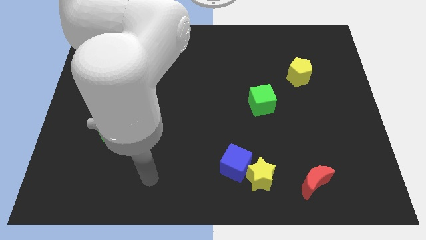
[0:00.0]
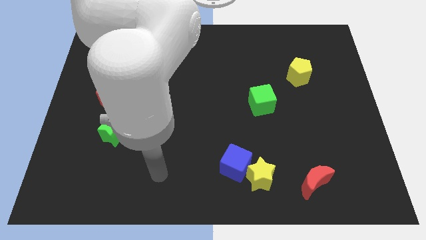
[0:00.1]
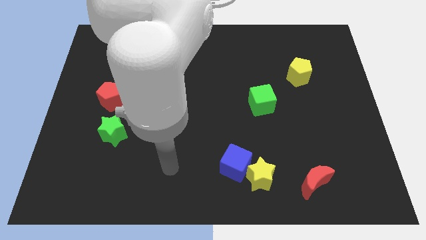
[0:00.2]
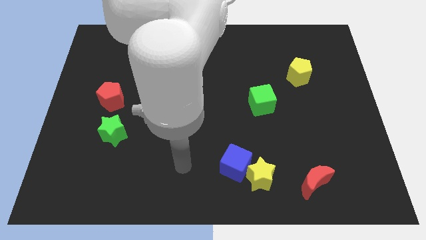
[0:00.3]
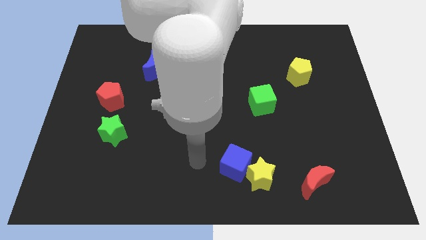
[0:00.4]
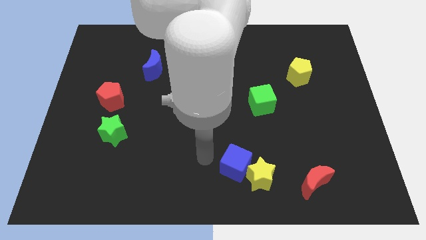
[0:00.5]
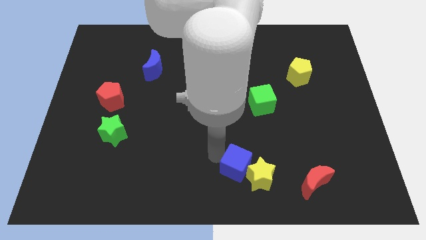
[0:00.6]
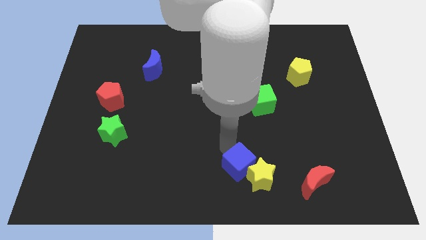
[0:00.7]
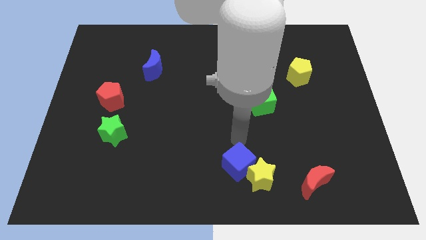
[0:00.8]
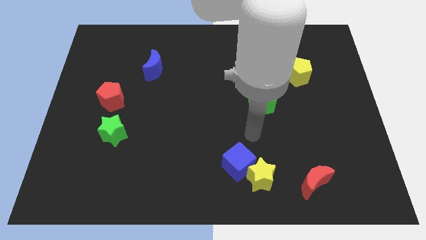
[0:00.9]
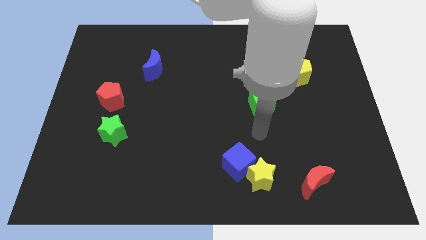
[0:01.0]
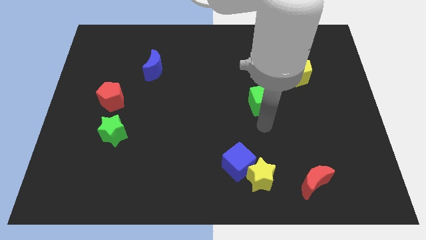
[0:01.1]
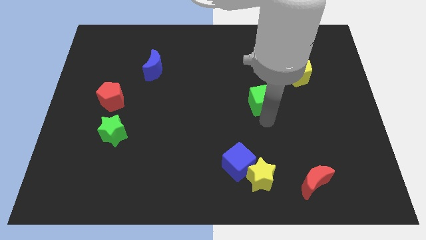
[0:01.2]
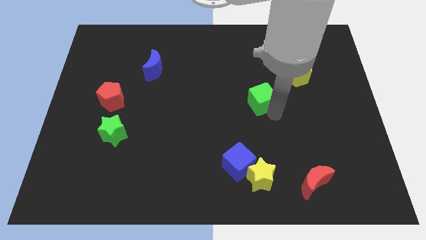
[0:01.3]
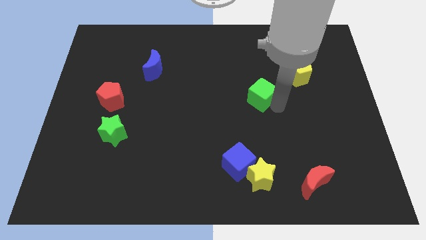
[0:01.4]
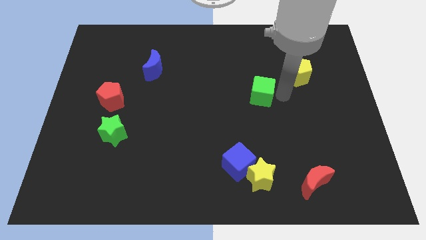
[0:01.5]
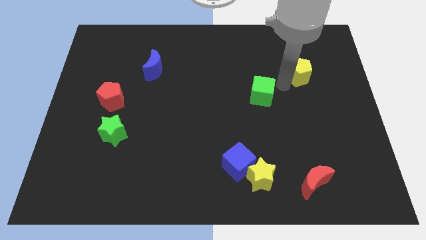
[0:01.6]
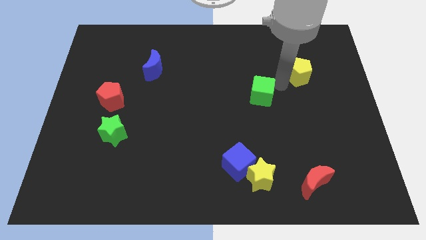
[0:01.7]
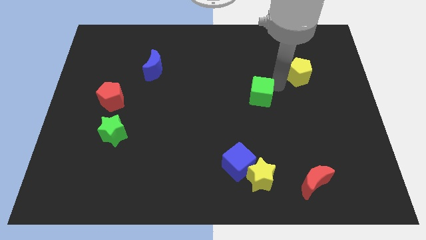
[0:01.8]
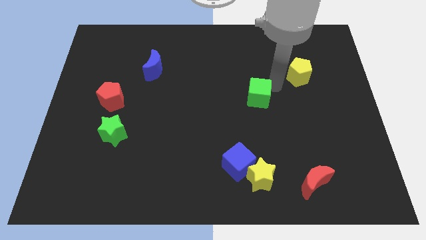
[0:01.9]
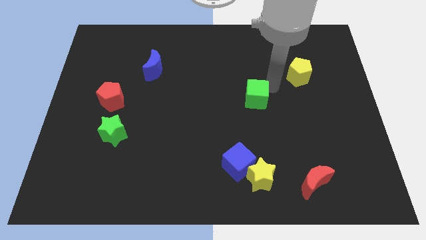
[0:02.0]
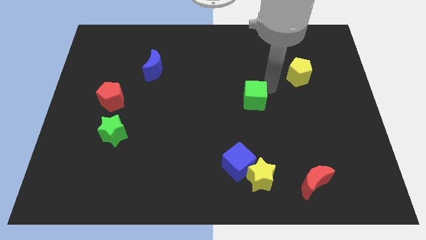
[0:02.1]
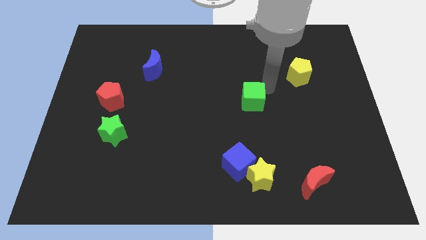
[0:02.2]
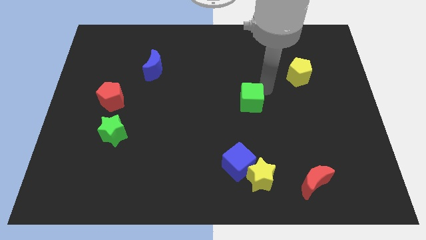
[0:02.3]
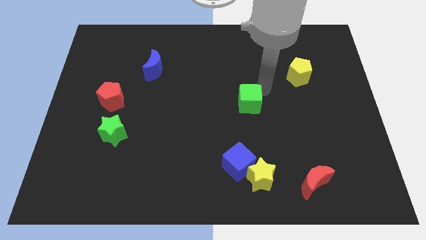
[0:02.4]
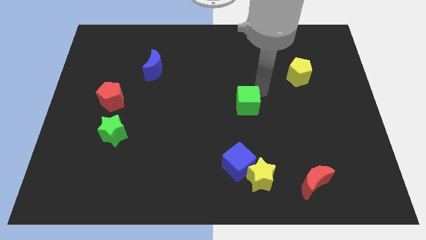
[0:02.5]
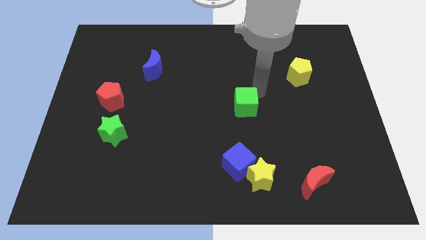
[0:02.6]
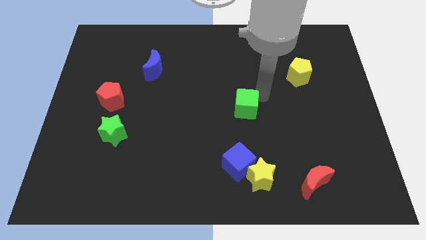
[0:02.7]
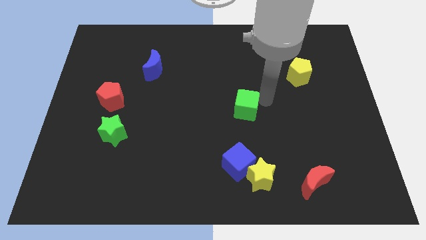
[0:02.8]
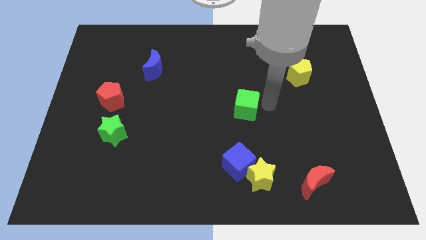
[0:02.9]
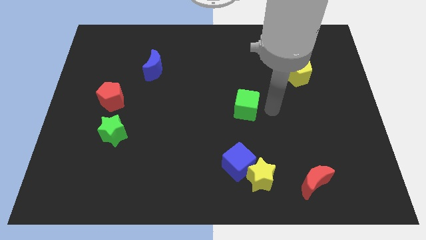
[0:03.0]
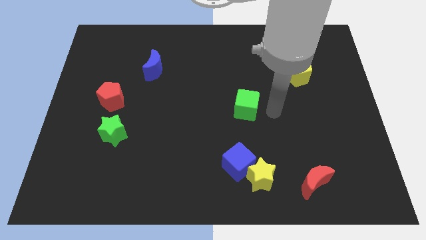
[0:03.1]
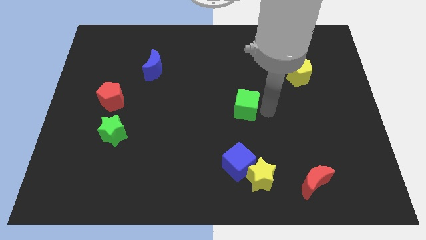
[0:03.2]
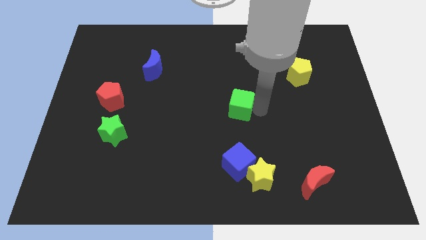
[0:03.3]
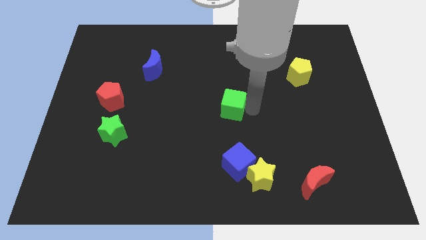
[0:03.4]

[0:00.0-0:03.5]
push the green cube a little left

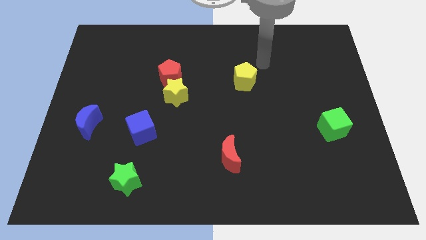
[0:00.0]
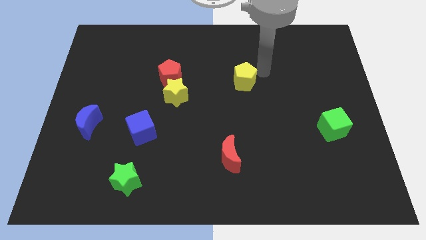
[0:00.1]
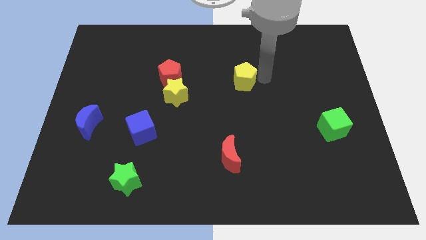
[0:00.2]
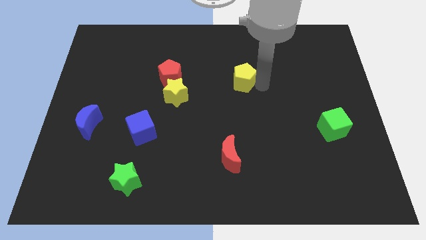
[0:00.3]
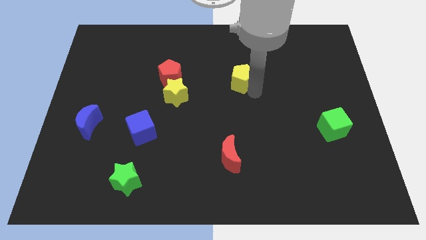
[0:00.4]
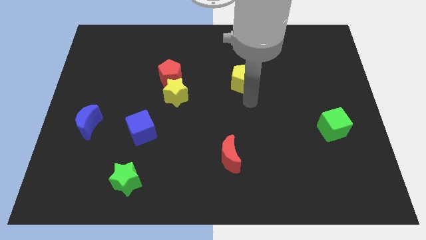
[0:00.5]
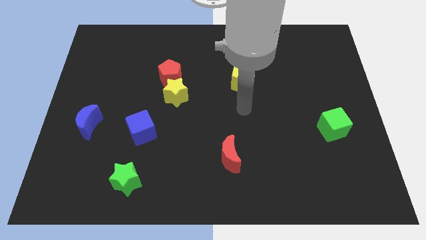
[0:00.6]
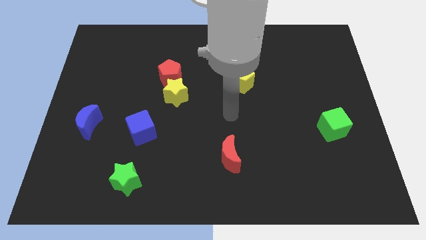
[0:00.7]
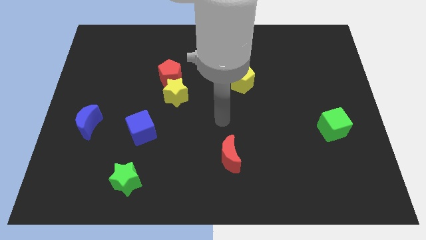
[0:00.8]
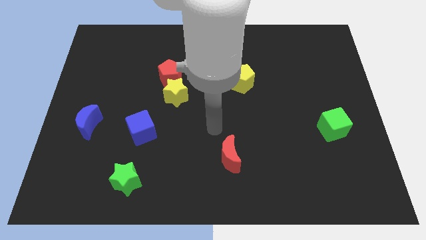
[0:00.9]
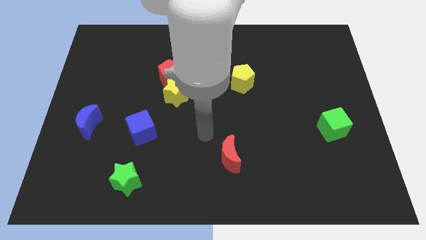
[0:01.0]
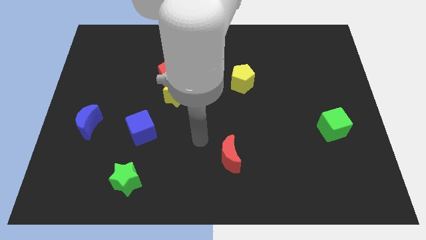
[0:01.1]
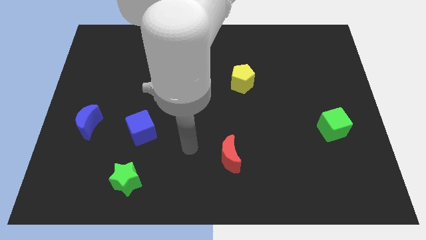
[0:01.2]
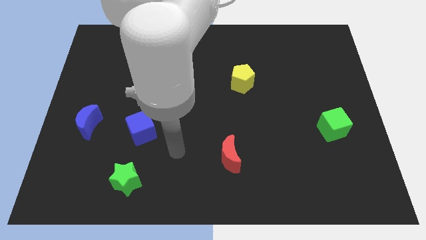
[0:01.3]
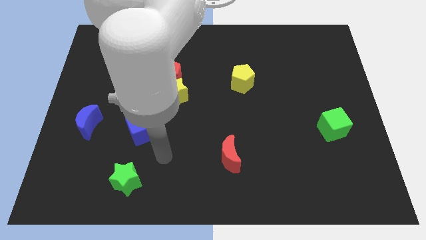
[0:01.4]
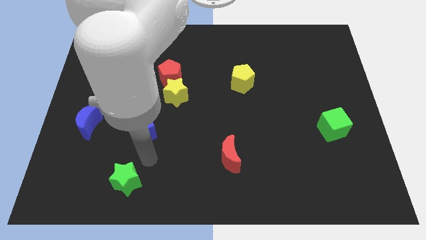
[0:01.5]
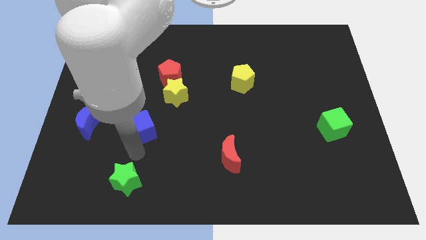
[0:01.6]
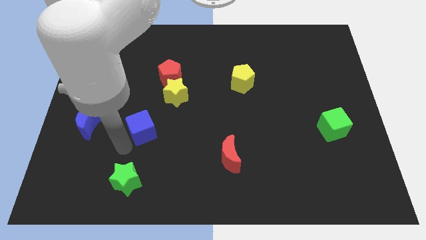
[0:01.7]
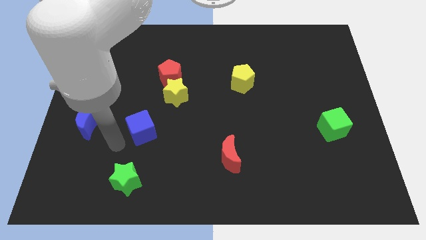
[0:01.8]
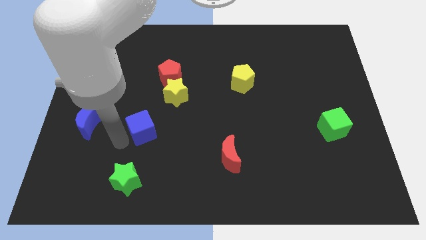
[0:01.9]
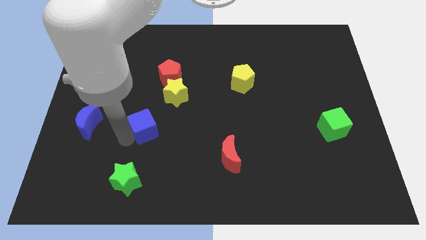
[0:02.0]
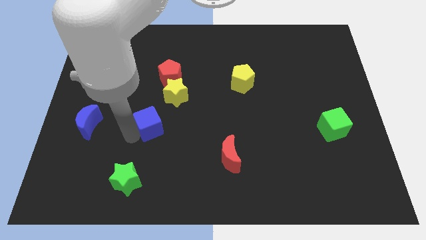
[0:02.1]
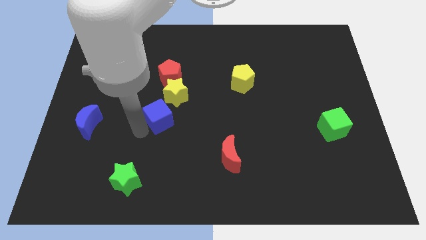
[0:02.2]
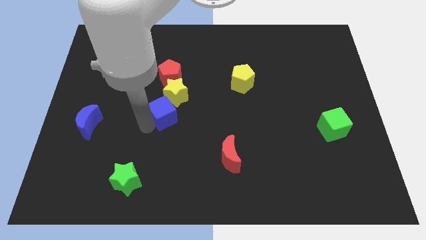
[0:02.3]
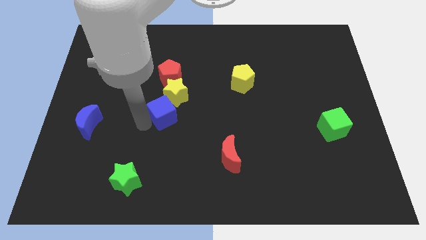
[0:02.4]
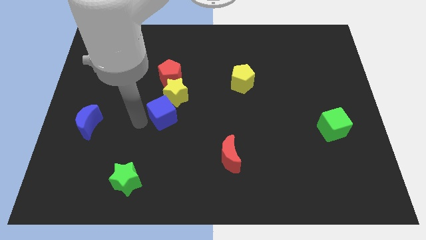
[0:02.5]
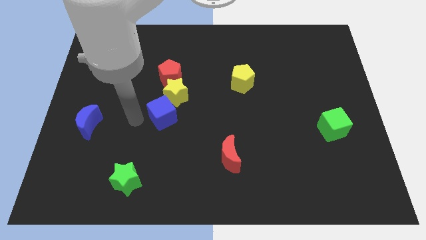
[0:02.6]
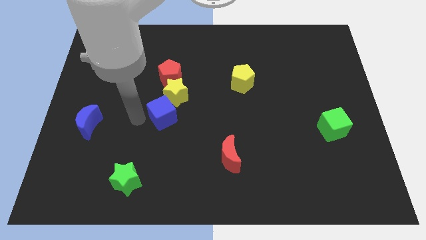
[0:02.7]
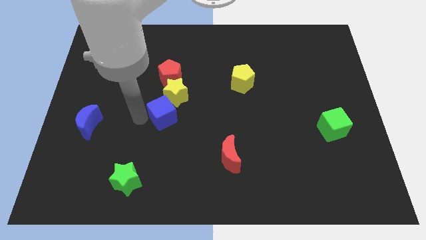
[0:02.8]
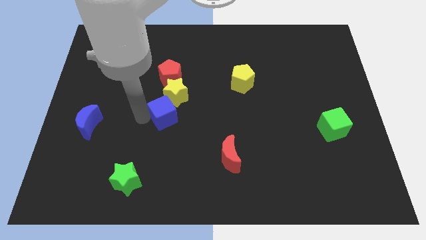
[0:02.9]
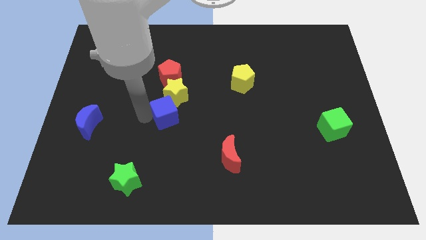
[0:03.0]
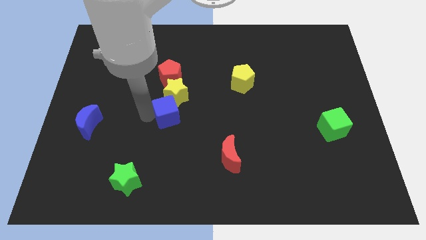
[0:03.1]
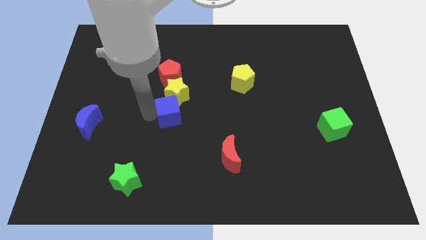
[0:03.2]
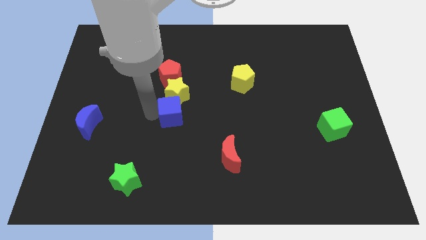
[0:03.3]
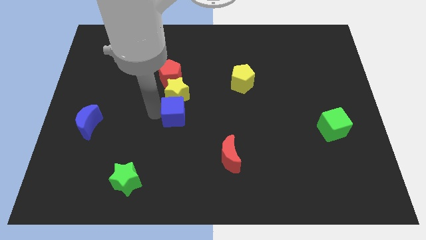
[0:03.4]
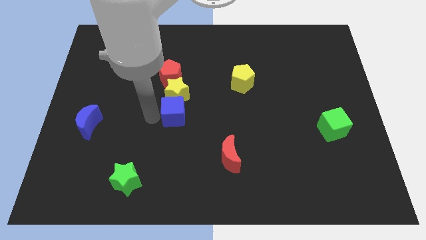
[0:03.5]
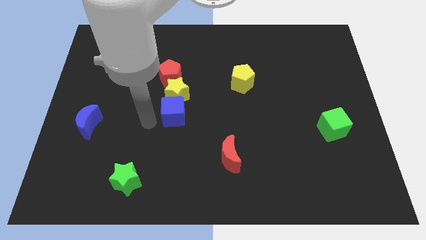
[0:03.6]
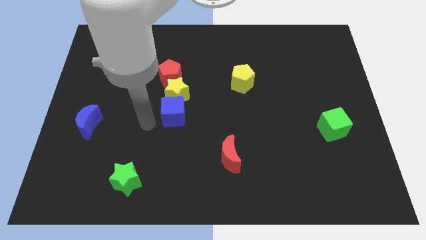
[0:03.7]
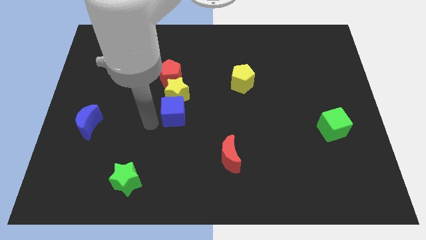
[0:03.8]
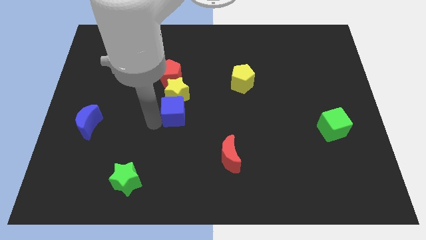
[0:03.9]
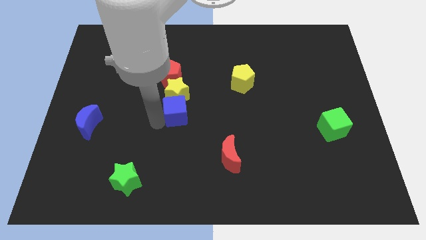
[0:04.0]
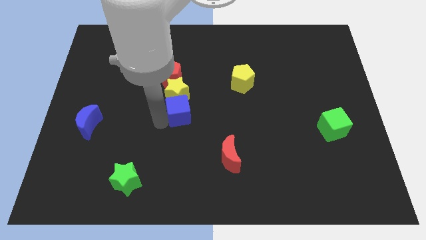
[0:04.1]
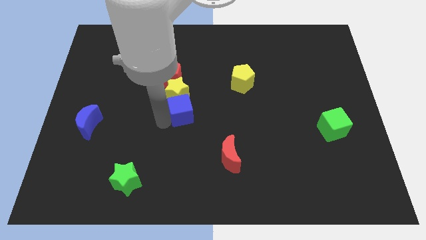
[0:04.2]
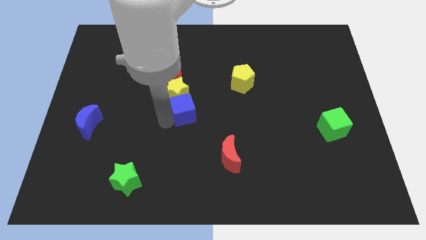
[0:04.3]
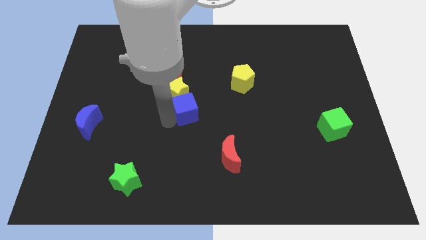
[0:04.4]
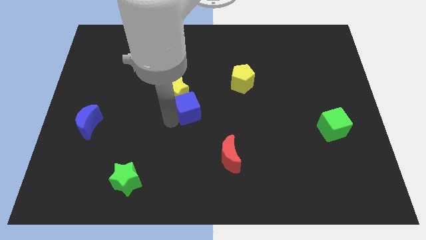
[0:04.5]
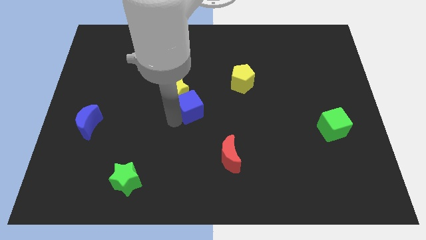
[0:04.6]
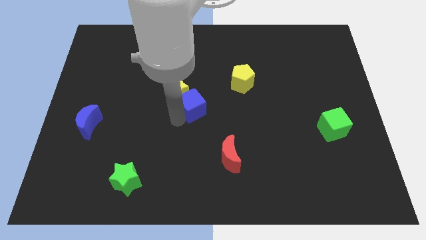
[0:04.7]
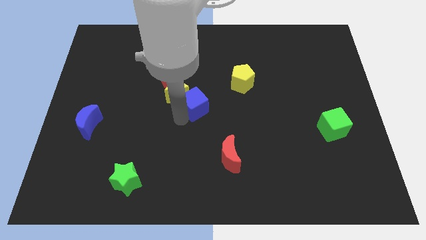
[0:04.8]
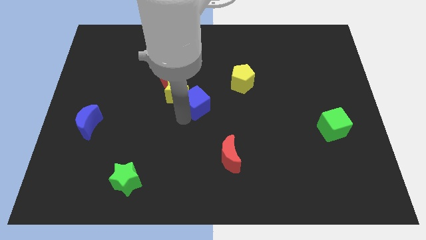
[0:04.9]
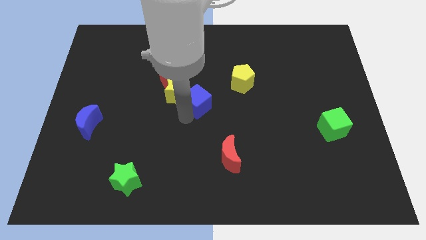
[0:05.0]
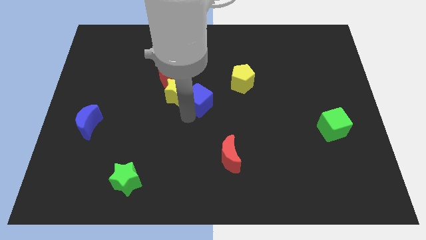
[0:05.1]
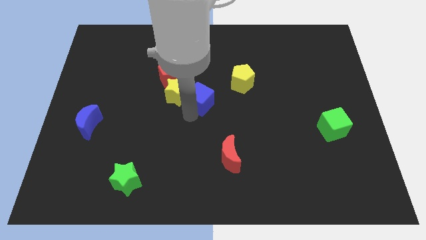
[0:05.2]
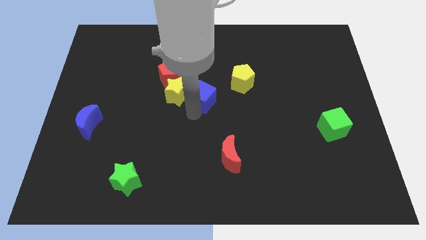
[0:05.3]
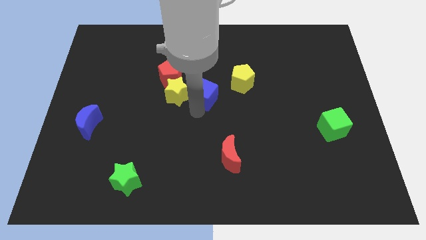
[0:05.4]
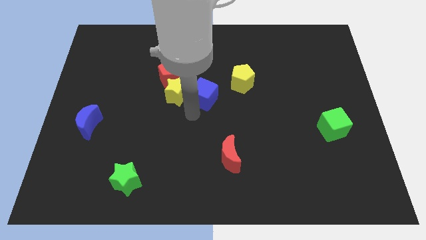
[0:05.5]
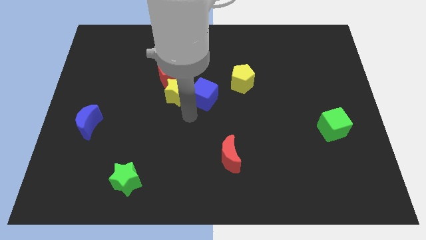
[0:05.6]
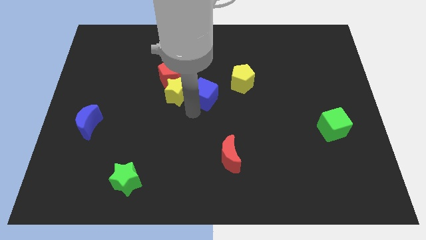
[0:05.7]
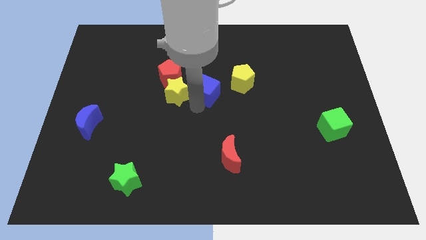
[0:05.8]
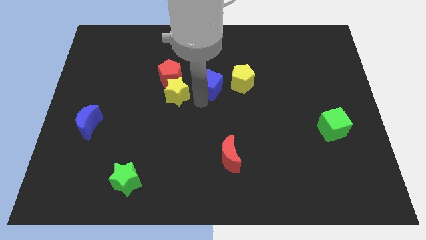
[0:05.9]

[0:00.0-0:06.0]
move the blue cube up and to the right
